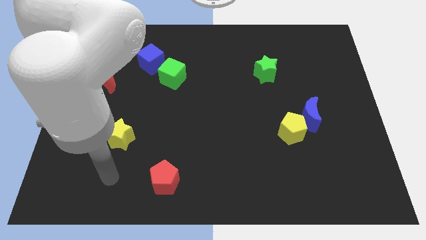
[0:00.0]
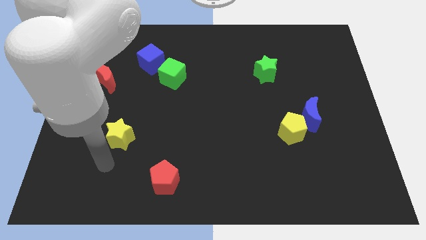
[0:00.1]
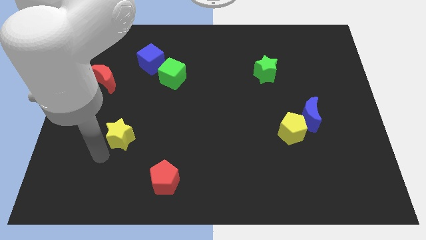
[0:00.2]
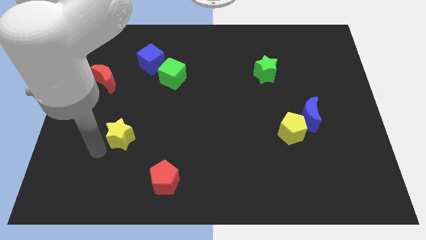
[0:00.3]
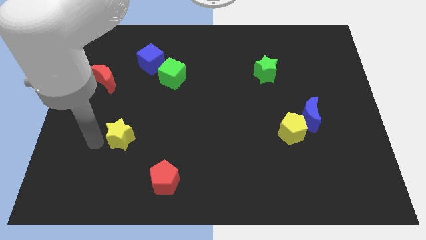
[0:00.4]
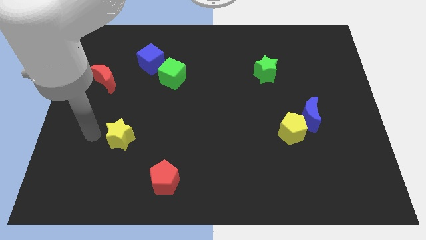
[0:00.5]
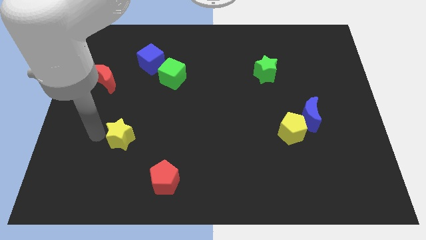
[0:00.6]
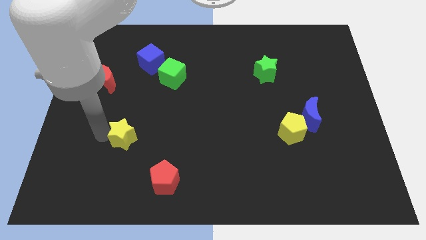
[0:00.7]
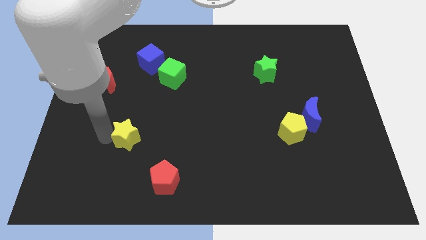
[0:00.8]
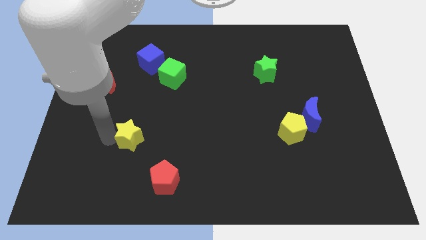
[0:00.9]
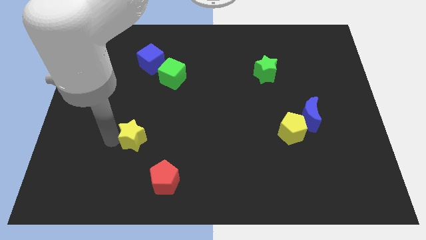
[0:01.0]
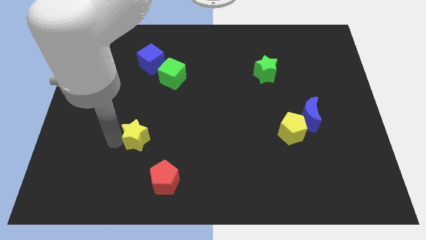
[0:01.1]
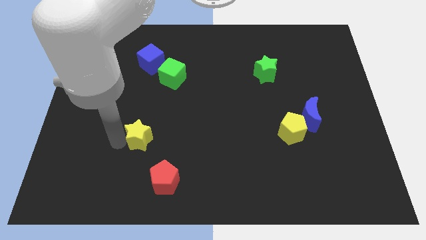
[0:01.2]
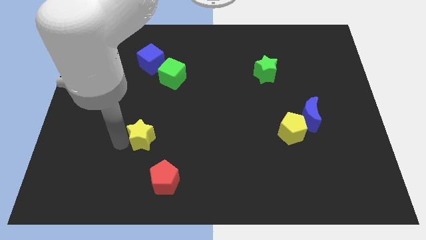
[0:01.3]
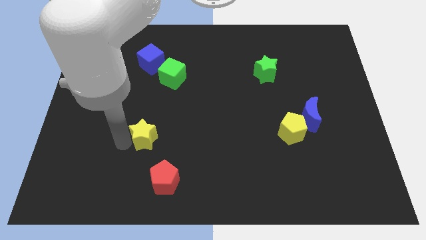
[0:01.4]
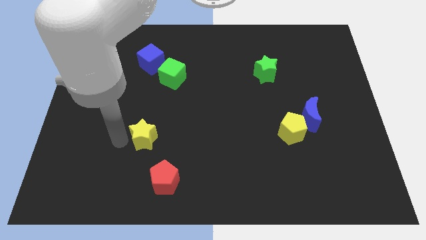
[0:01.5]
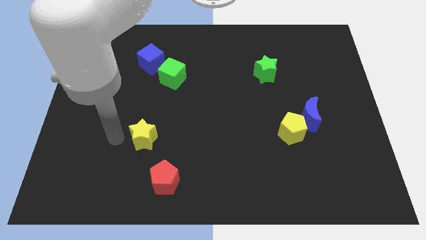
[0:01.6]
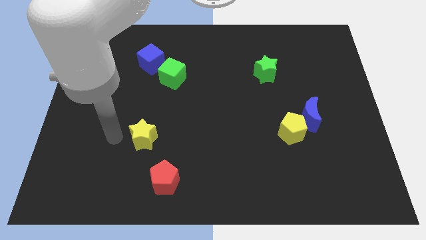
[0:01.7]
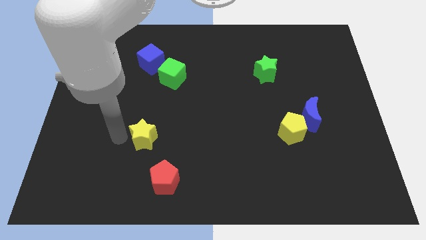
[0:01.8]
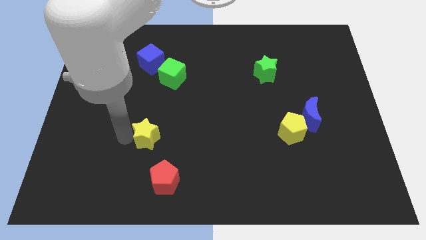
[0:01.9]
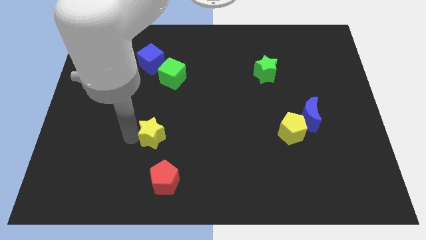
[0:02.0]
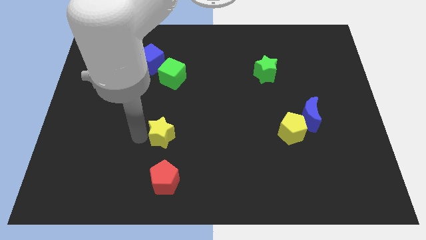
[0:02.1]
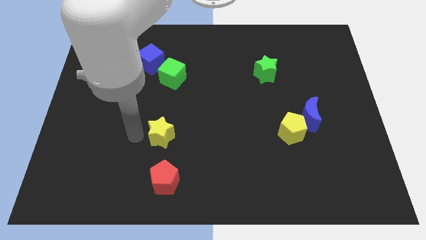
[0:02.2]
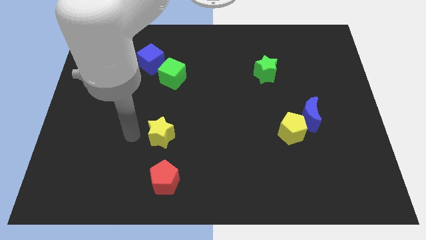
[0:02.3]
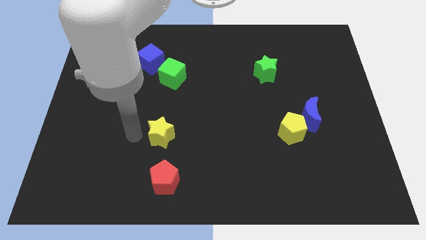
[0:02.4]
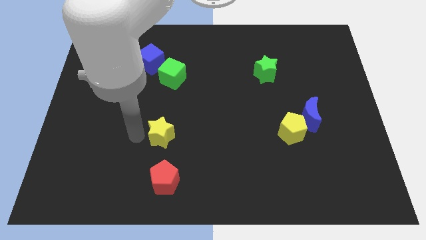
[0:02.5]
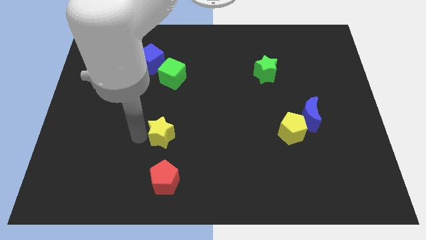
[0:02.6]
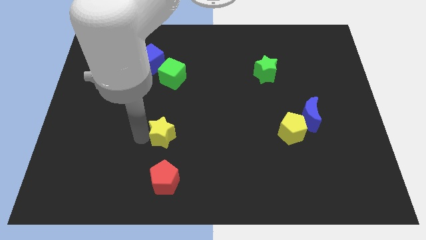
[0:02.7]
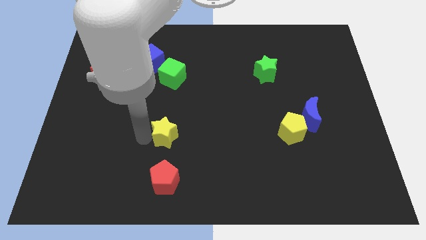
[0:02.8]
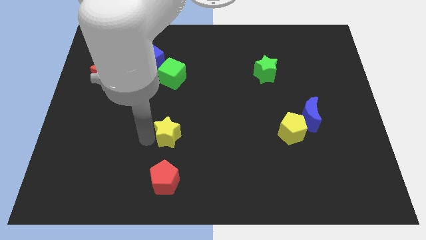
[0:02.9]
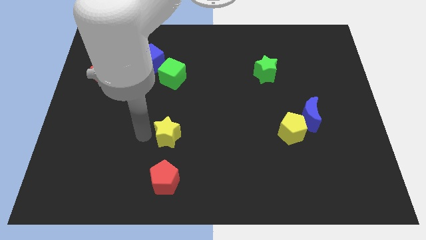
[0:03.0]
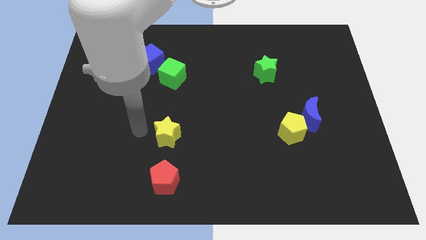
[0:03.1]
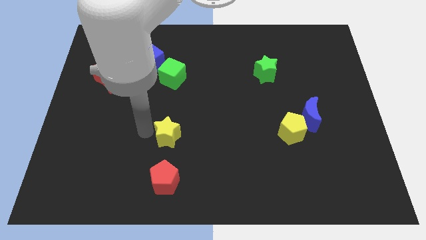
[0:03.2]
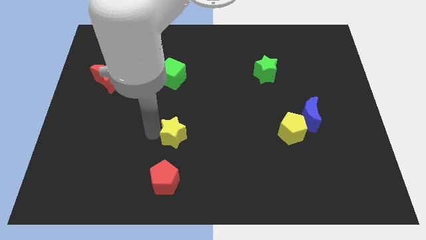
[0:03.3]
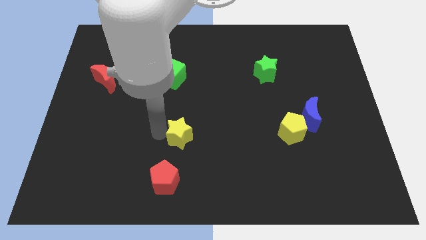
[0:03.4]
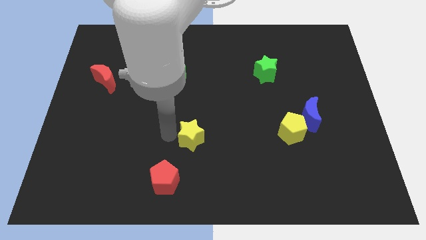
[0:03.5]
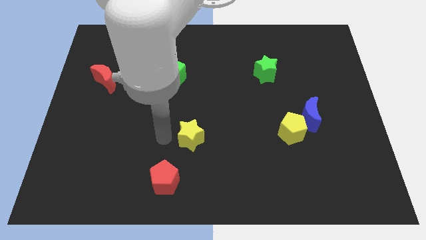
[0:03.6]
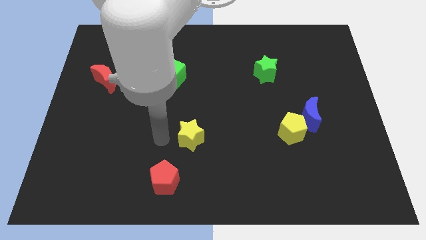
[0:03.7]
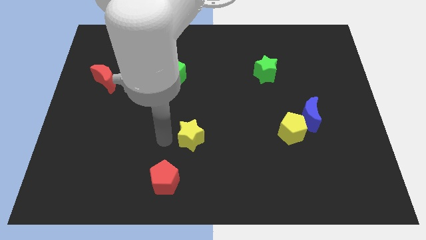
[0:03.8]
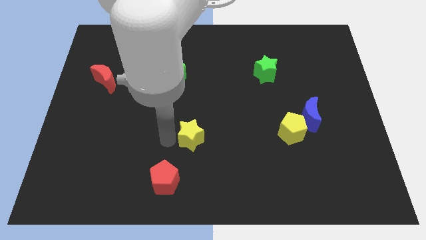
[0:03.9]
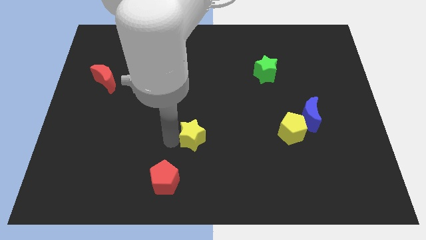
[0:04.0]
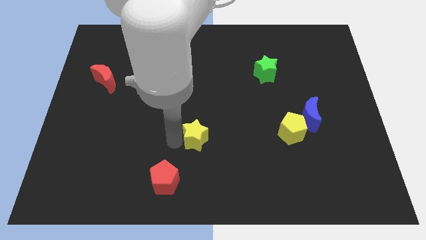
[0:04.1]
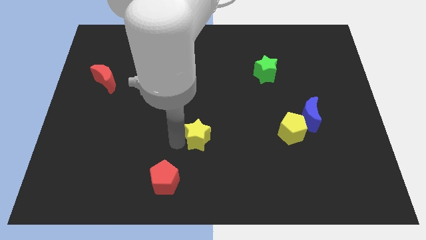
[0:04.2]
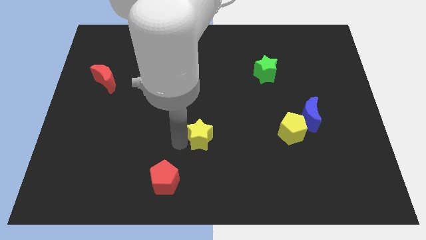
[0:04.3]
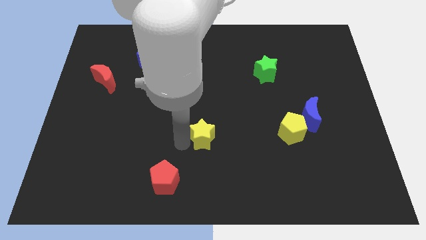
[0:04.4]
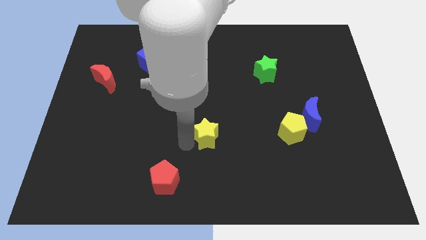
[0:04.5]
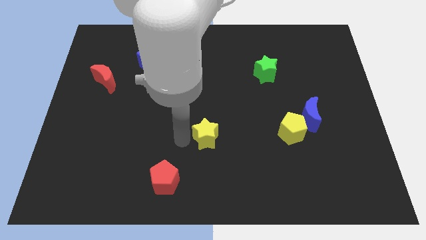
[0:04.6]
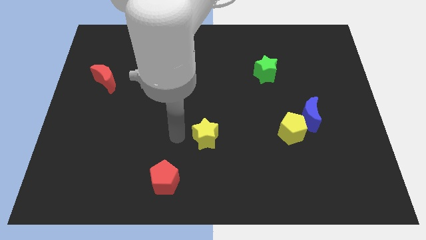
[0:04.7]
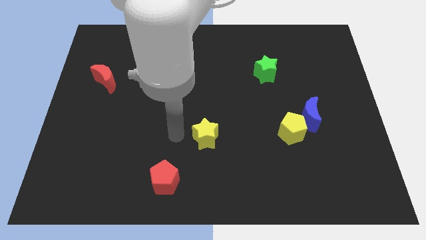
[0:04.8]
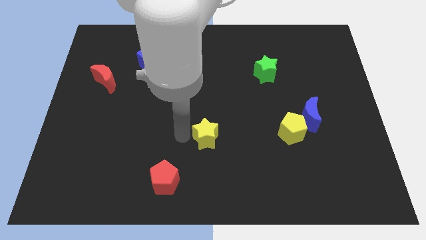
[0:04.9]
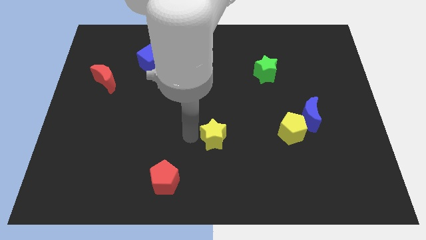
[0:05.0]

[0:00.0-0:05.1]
push the yellow star right

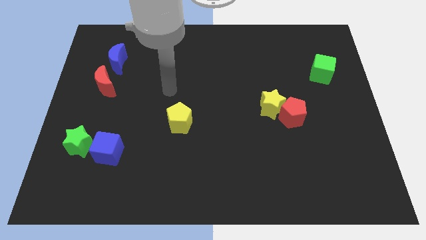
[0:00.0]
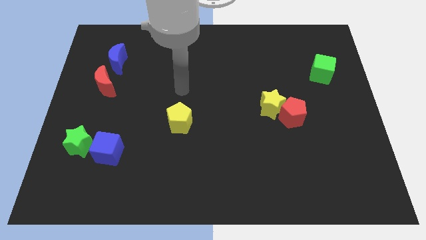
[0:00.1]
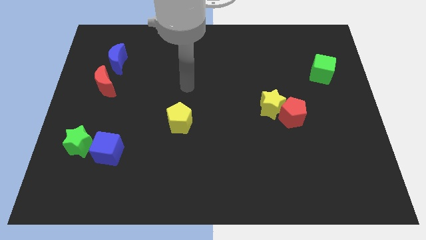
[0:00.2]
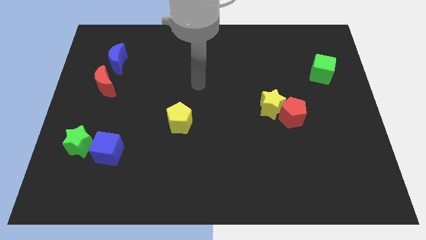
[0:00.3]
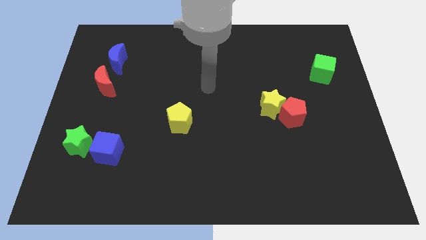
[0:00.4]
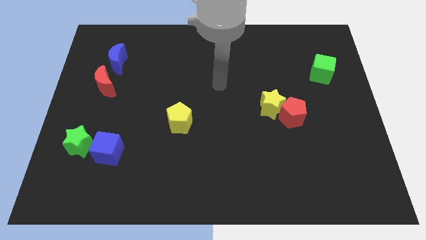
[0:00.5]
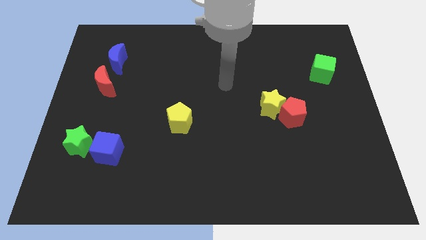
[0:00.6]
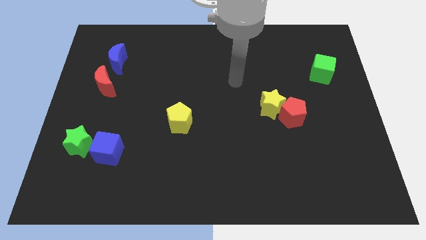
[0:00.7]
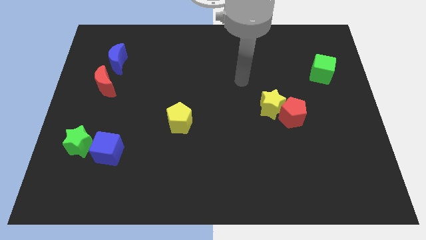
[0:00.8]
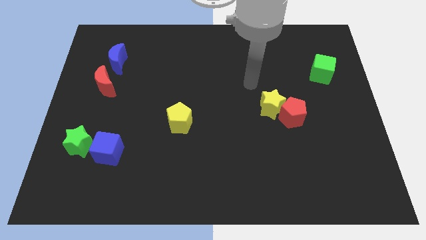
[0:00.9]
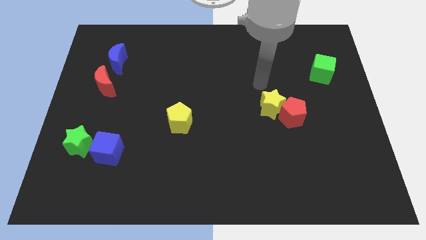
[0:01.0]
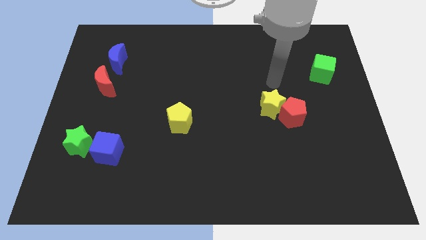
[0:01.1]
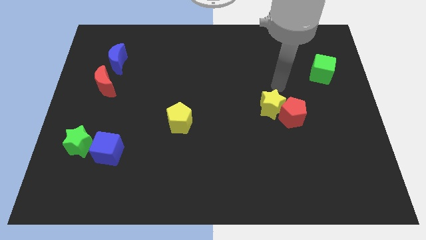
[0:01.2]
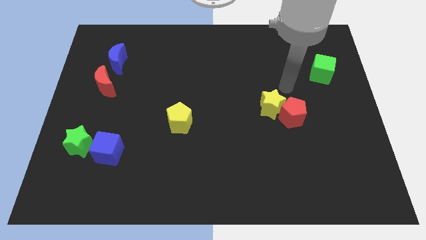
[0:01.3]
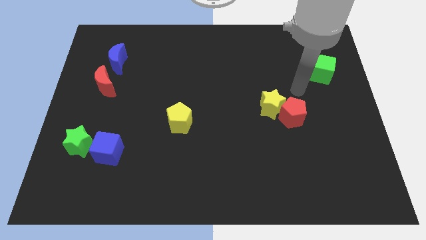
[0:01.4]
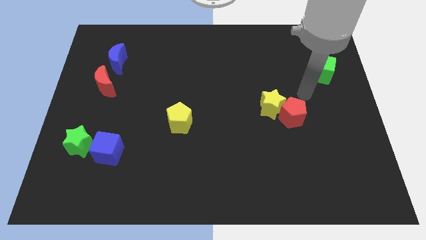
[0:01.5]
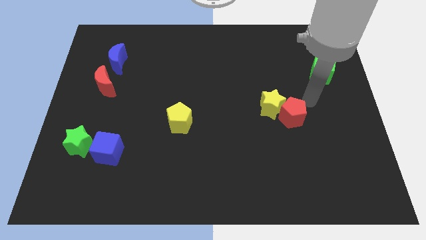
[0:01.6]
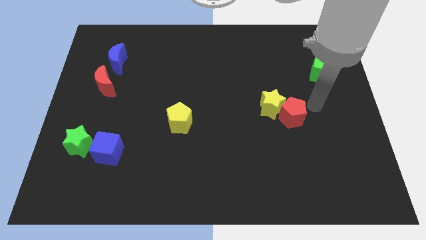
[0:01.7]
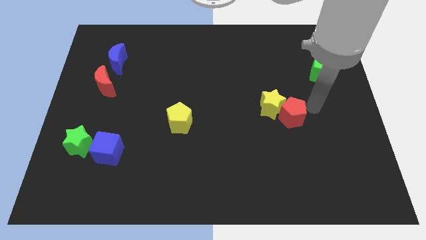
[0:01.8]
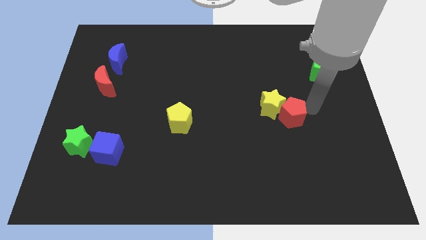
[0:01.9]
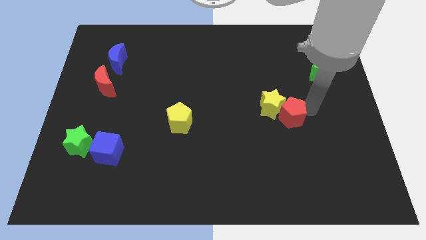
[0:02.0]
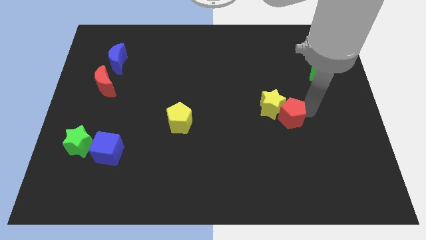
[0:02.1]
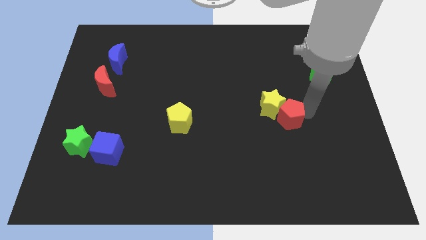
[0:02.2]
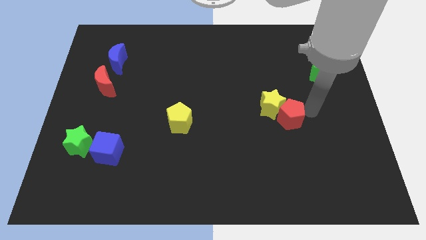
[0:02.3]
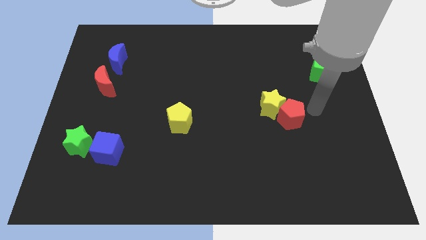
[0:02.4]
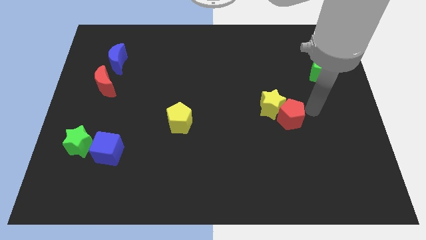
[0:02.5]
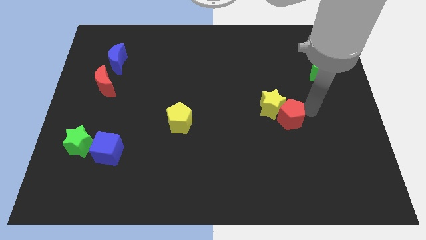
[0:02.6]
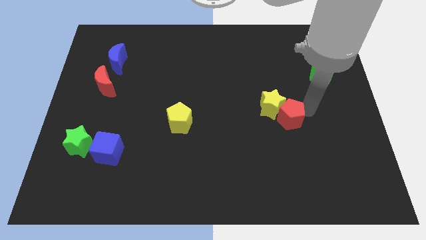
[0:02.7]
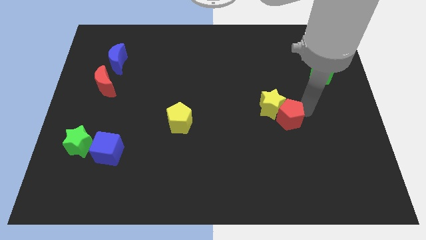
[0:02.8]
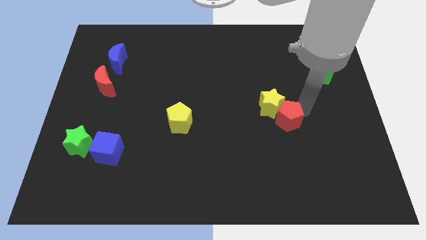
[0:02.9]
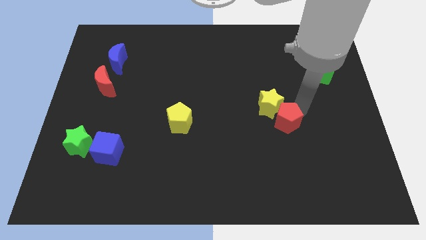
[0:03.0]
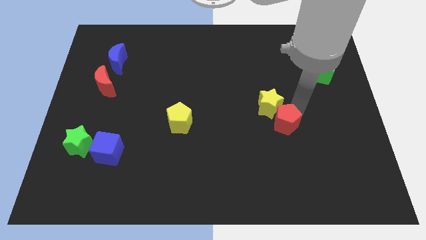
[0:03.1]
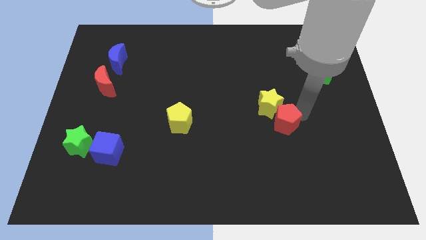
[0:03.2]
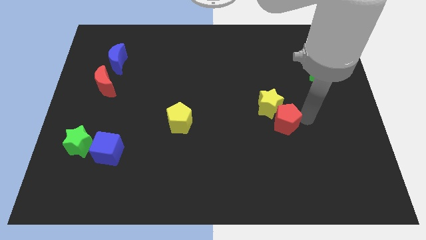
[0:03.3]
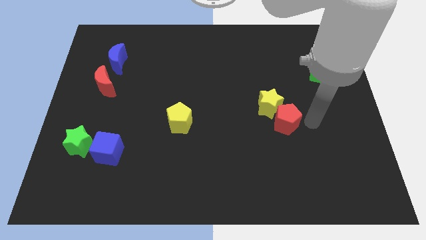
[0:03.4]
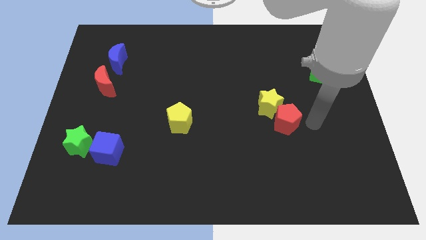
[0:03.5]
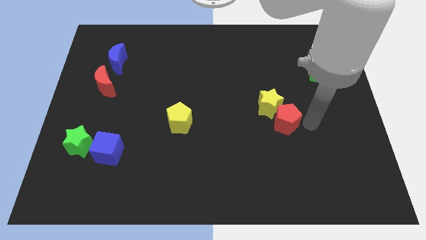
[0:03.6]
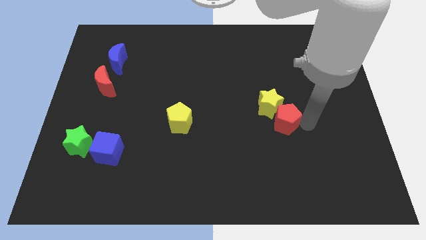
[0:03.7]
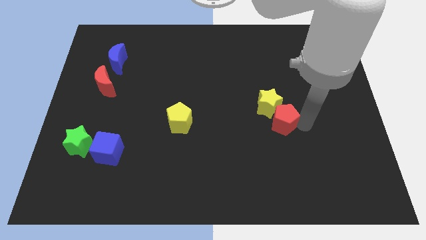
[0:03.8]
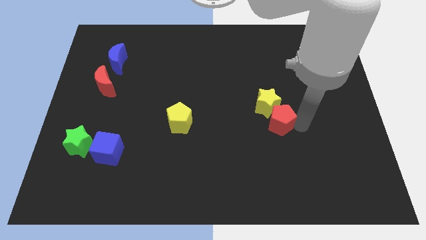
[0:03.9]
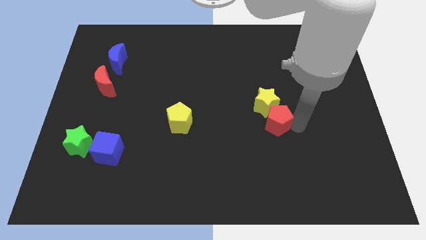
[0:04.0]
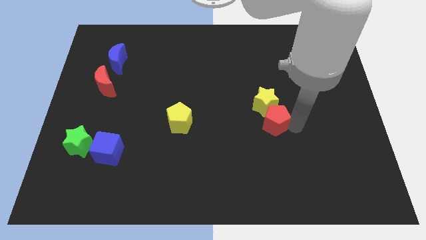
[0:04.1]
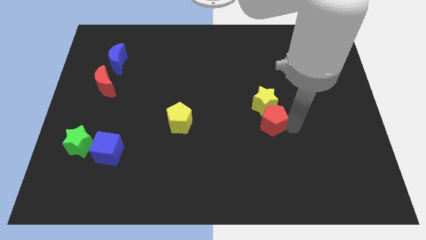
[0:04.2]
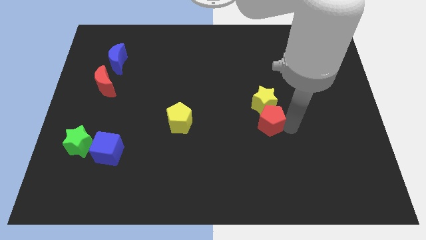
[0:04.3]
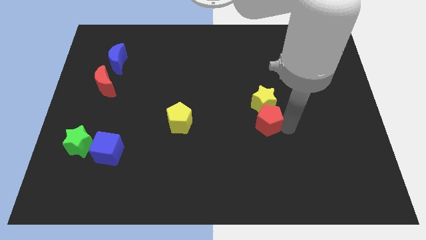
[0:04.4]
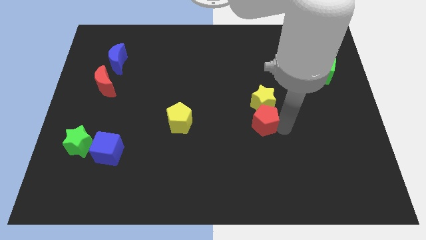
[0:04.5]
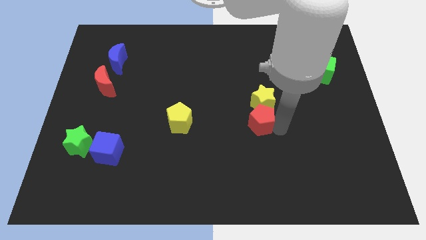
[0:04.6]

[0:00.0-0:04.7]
move the red pentagon slightly to the left
